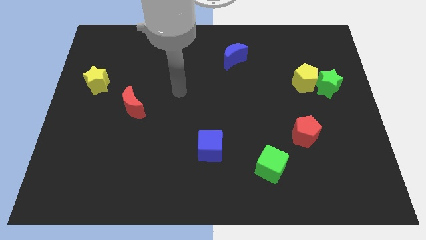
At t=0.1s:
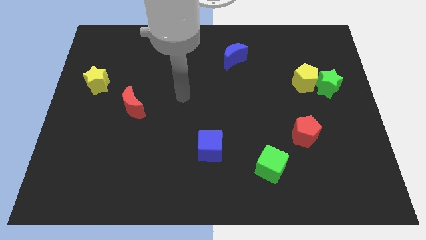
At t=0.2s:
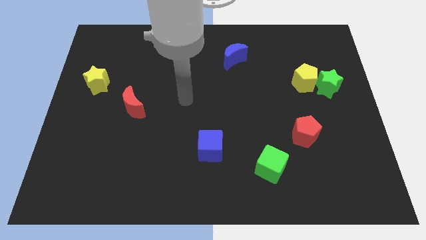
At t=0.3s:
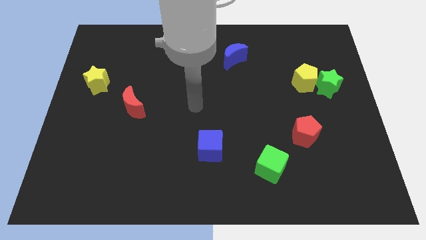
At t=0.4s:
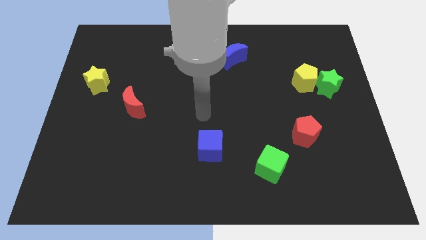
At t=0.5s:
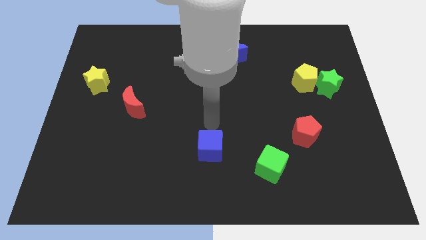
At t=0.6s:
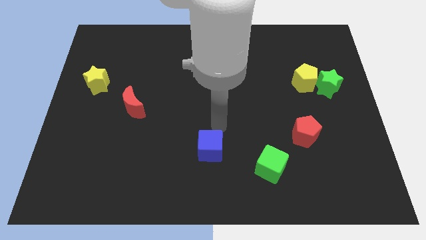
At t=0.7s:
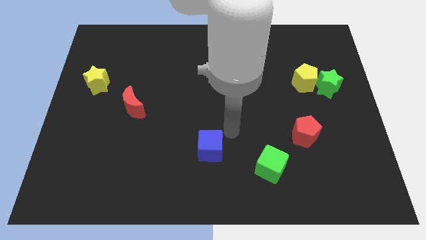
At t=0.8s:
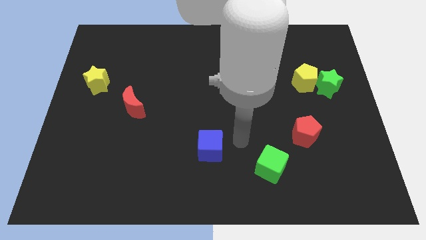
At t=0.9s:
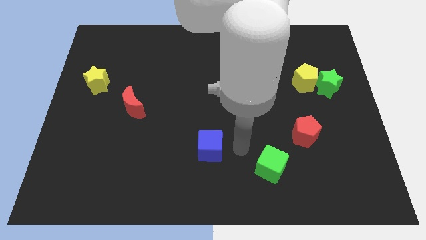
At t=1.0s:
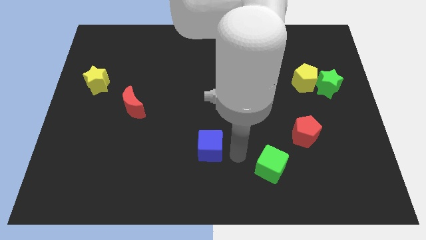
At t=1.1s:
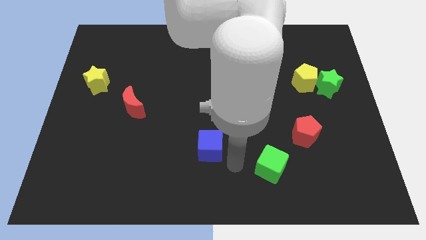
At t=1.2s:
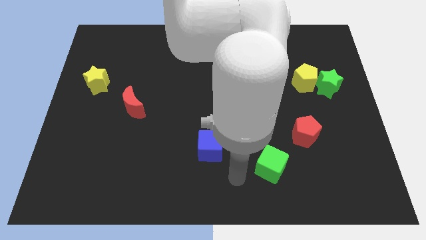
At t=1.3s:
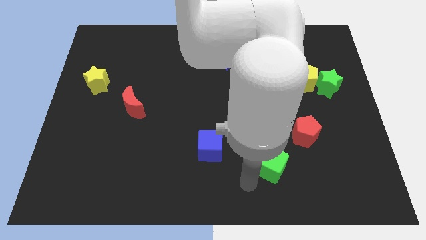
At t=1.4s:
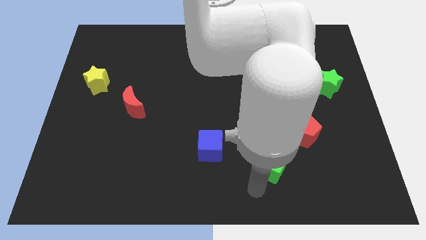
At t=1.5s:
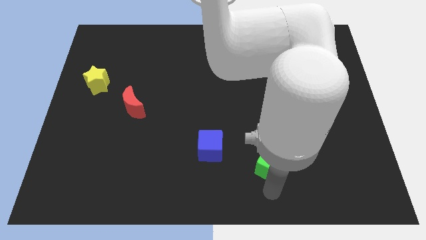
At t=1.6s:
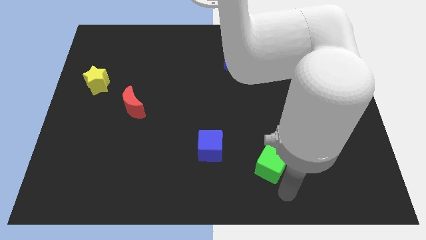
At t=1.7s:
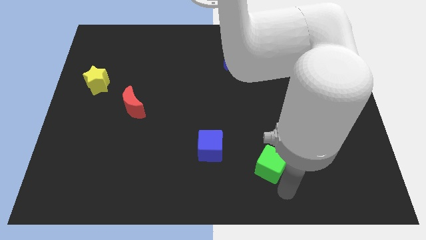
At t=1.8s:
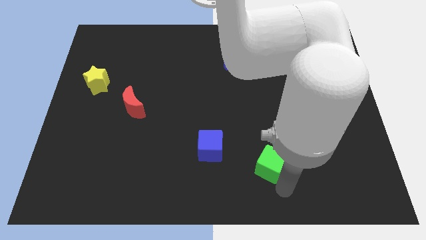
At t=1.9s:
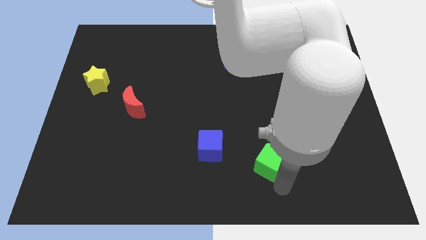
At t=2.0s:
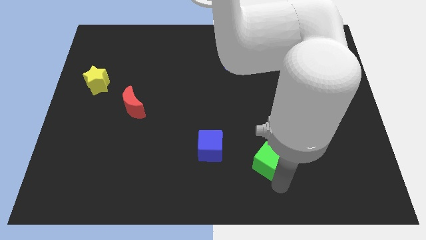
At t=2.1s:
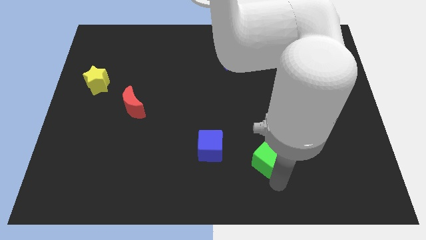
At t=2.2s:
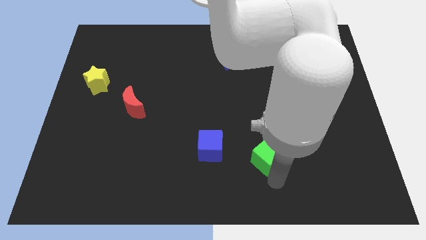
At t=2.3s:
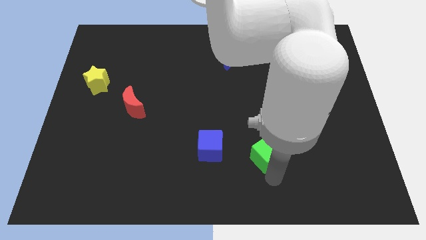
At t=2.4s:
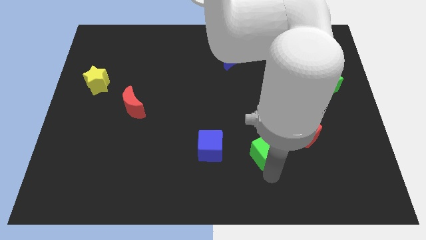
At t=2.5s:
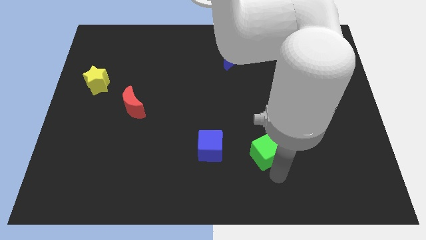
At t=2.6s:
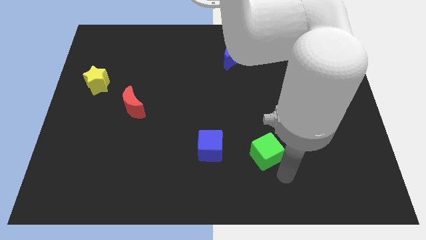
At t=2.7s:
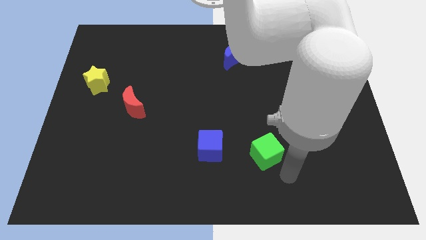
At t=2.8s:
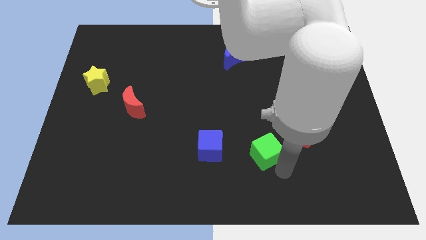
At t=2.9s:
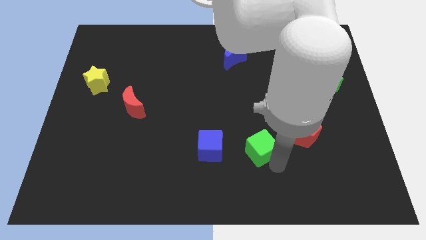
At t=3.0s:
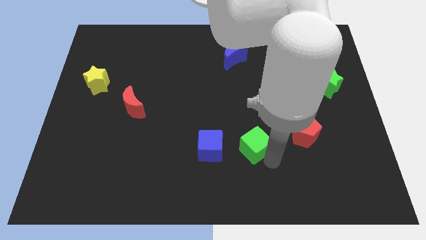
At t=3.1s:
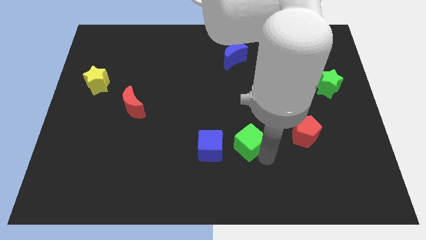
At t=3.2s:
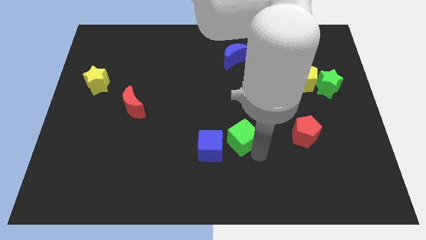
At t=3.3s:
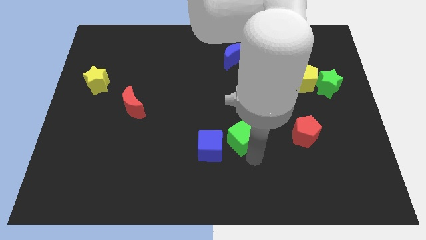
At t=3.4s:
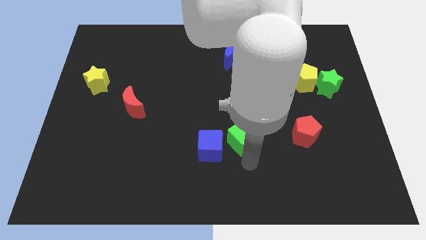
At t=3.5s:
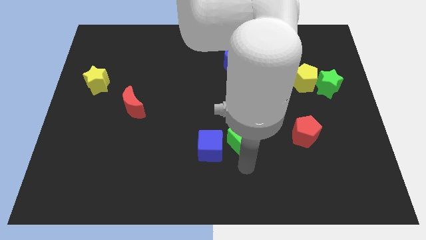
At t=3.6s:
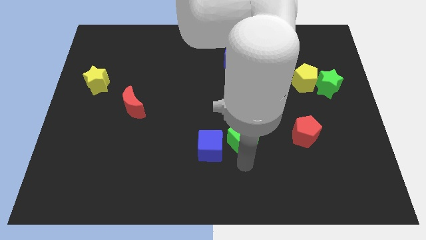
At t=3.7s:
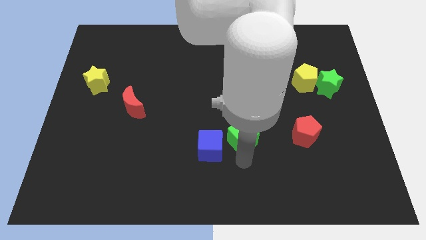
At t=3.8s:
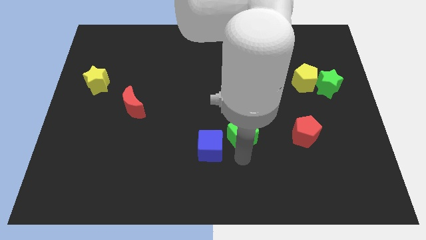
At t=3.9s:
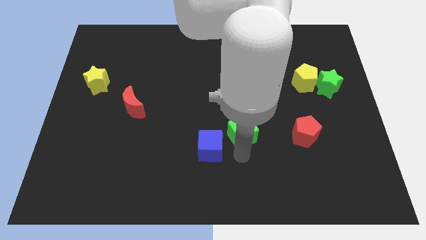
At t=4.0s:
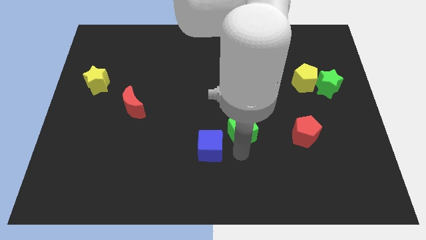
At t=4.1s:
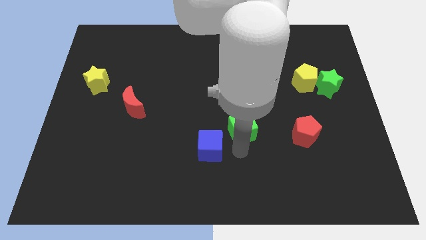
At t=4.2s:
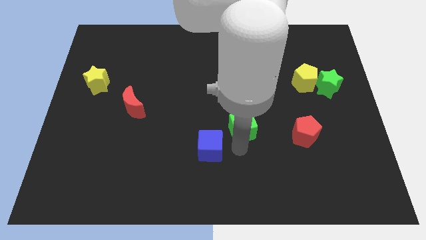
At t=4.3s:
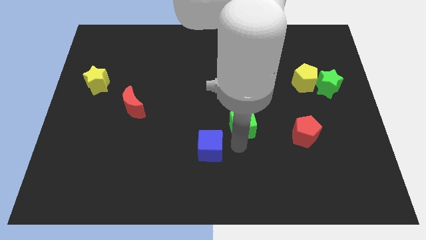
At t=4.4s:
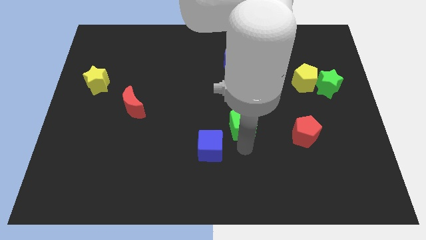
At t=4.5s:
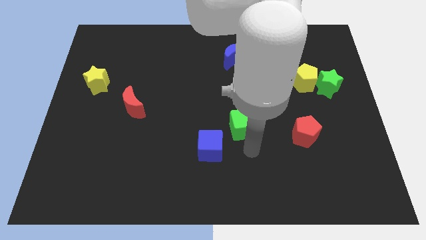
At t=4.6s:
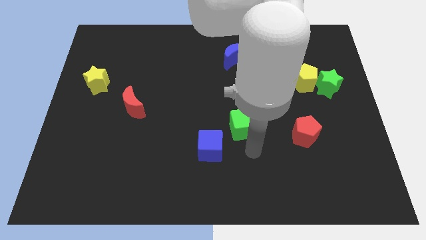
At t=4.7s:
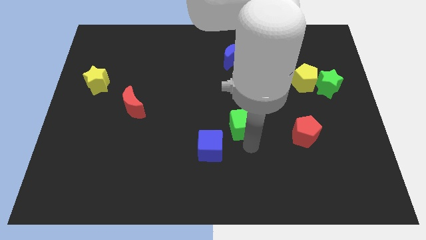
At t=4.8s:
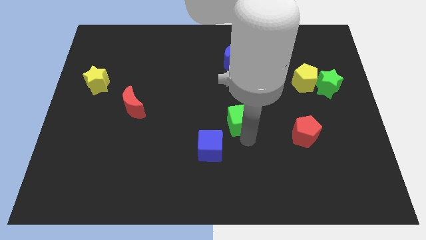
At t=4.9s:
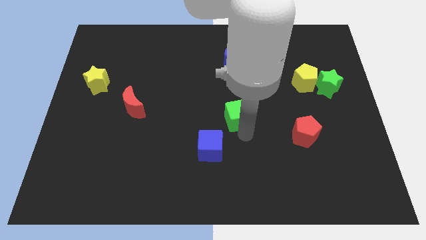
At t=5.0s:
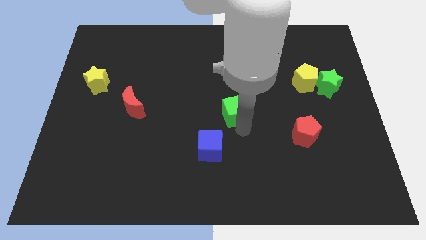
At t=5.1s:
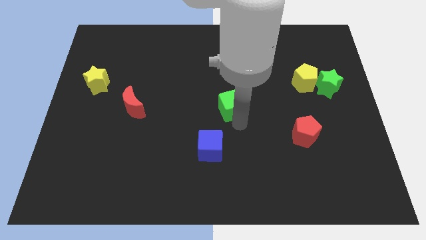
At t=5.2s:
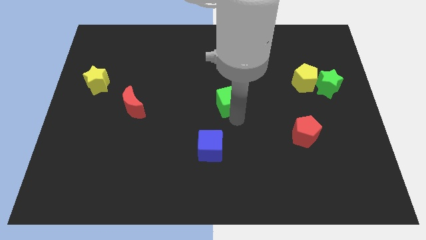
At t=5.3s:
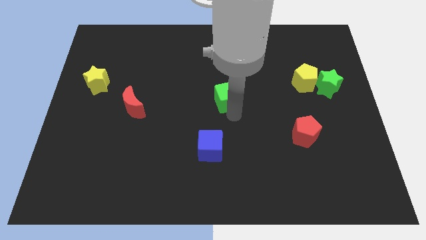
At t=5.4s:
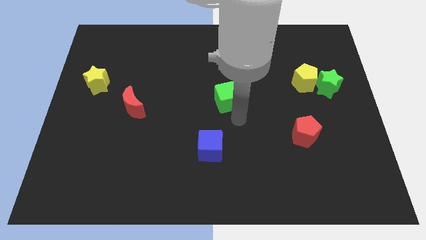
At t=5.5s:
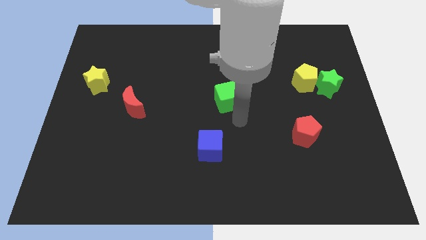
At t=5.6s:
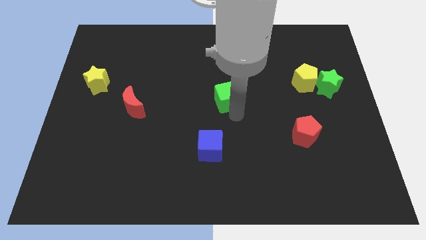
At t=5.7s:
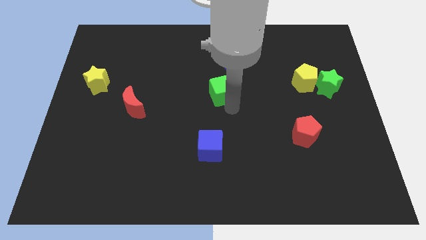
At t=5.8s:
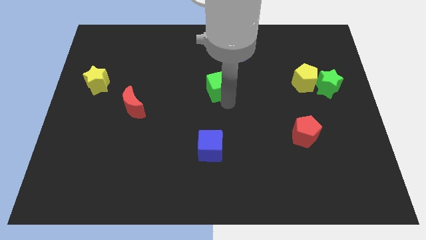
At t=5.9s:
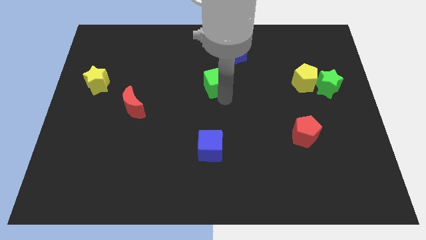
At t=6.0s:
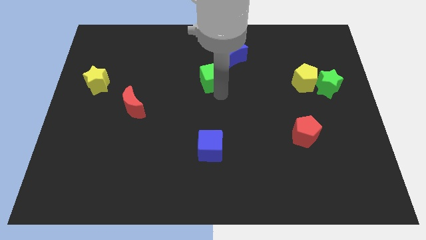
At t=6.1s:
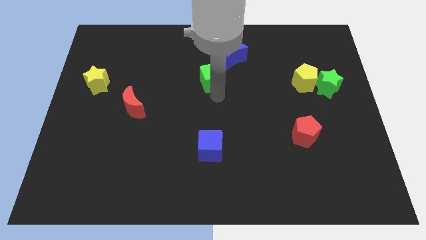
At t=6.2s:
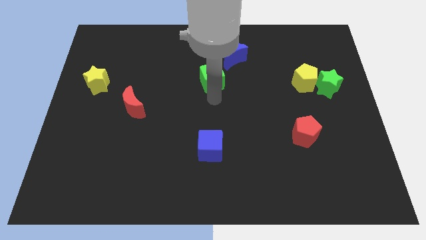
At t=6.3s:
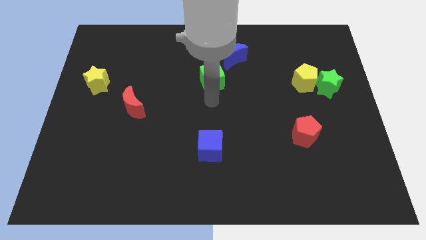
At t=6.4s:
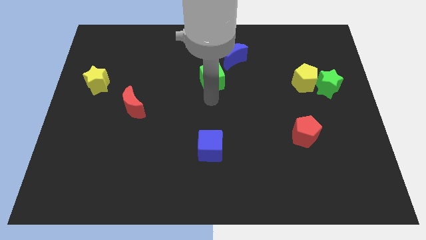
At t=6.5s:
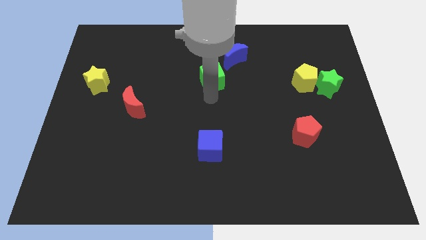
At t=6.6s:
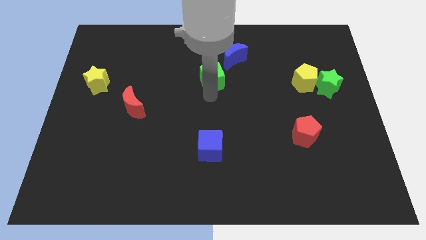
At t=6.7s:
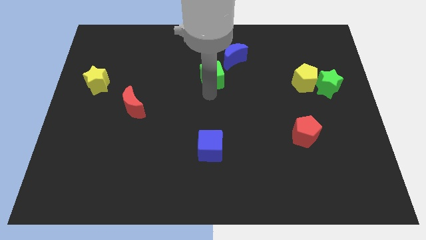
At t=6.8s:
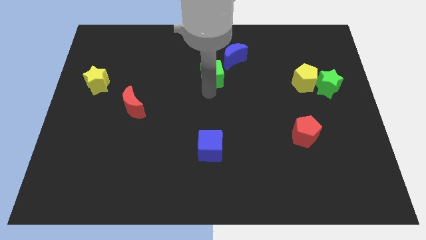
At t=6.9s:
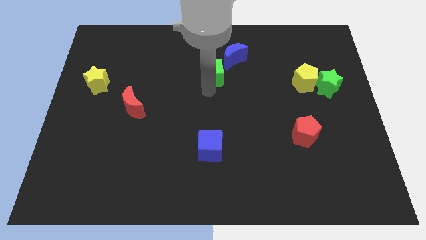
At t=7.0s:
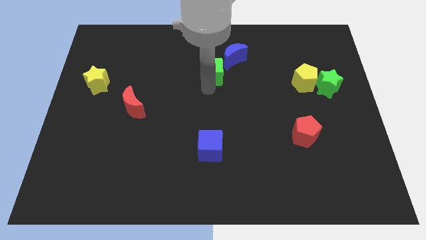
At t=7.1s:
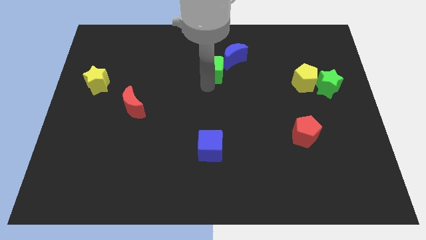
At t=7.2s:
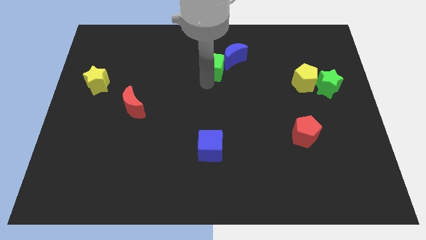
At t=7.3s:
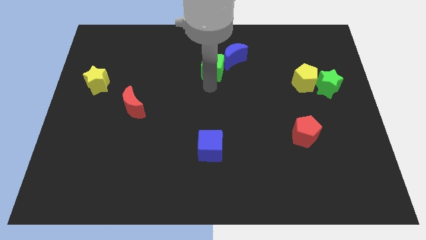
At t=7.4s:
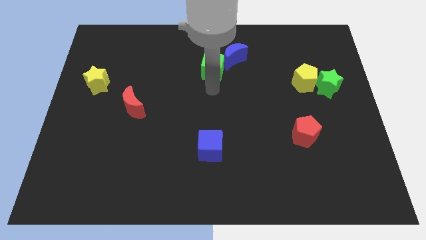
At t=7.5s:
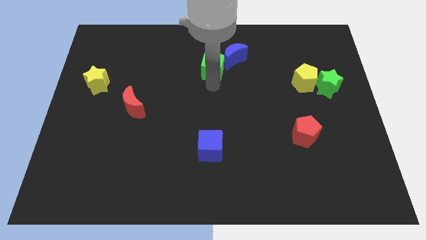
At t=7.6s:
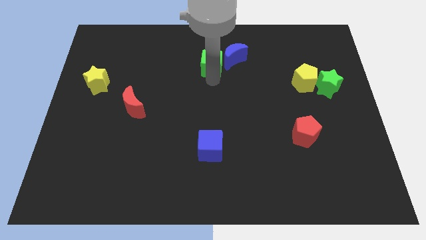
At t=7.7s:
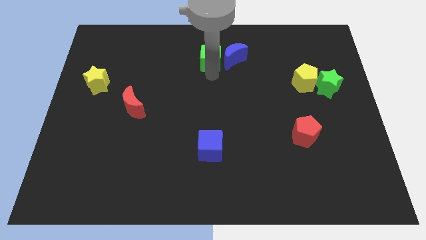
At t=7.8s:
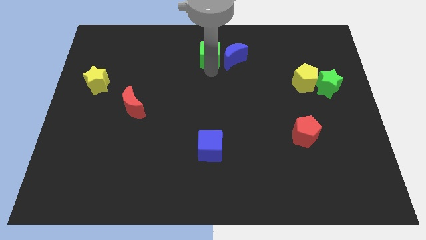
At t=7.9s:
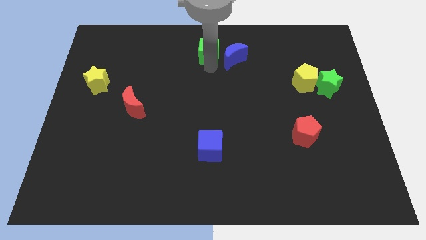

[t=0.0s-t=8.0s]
move the green cube to the towards your base
